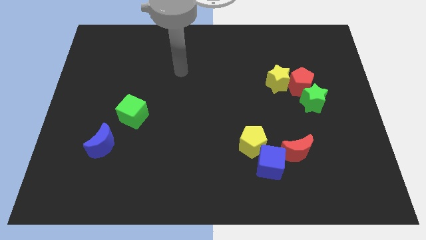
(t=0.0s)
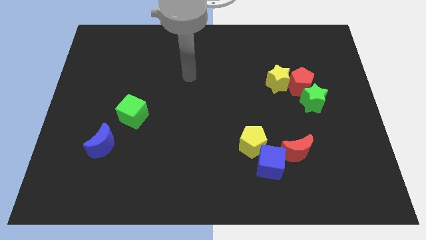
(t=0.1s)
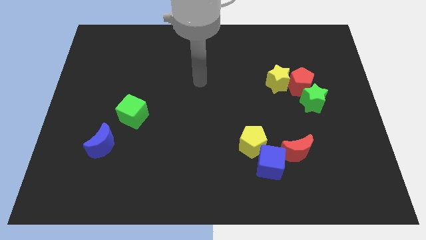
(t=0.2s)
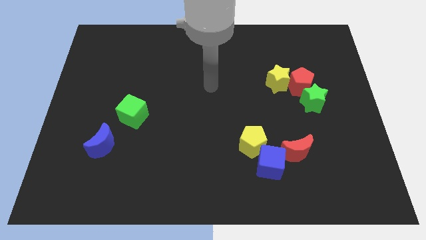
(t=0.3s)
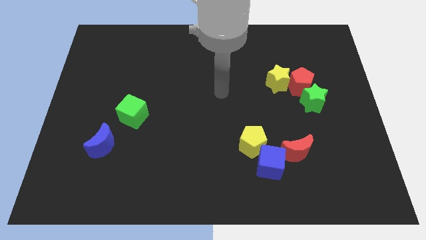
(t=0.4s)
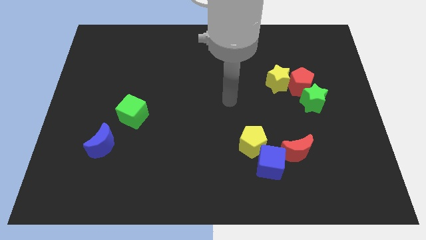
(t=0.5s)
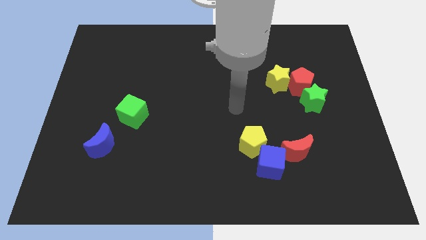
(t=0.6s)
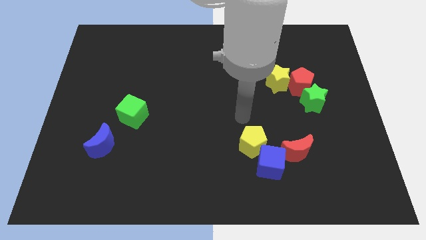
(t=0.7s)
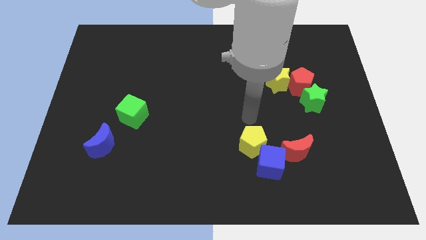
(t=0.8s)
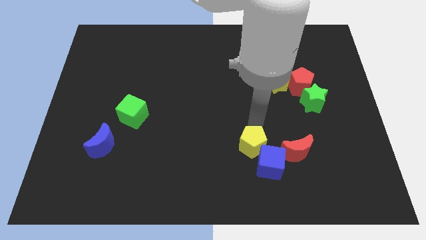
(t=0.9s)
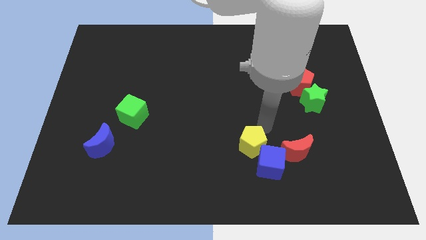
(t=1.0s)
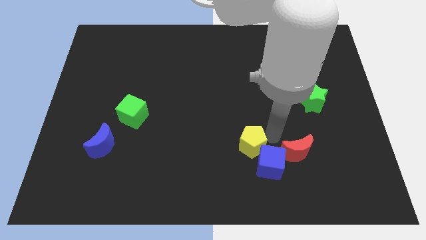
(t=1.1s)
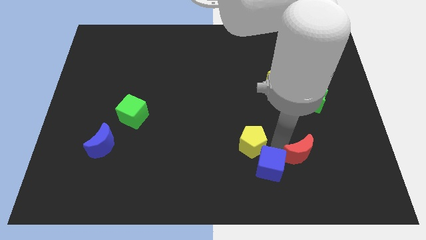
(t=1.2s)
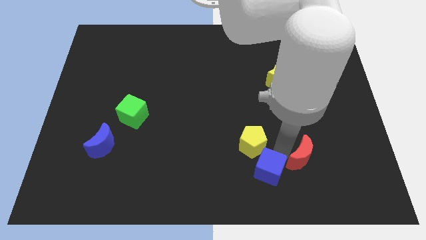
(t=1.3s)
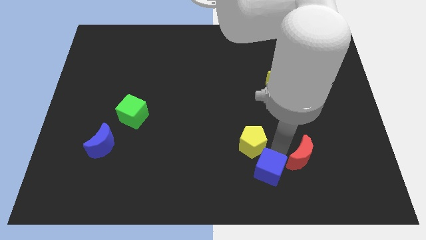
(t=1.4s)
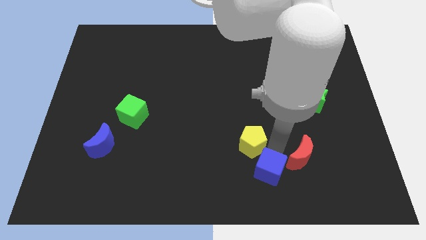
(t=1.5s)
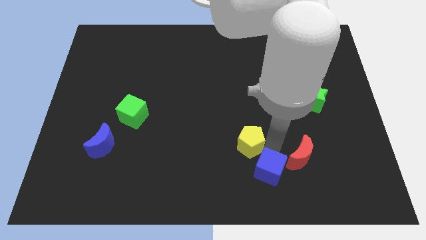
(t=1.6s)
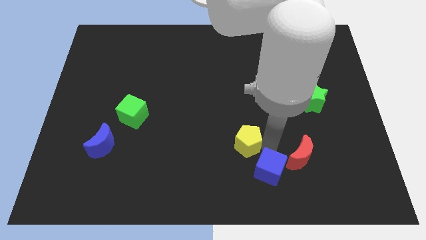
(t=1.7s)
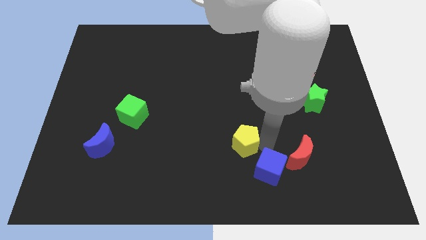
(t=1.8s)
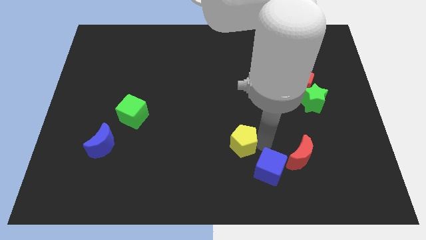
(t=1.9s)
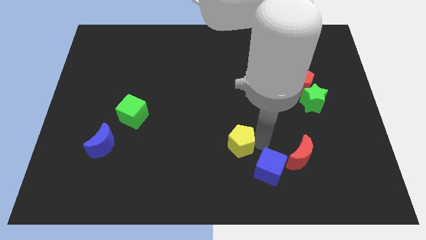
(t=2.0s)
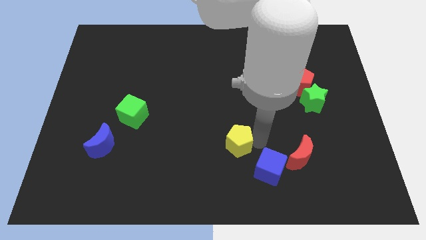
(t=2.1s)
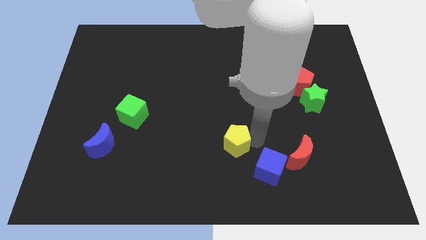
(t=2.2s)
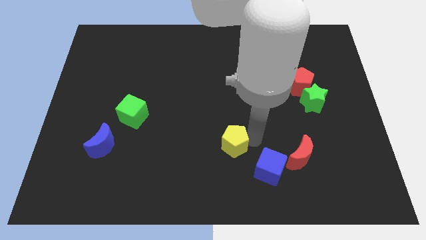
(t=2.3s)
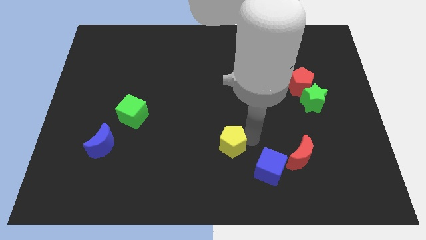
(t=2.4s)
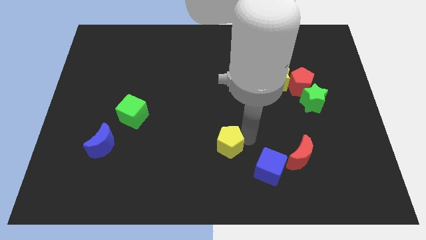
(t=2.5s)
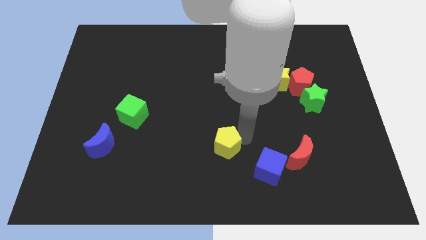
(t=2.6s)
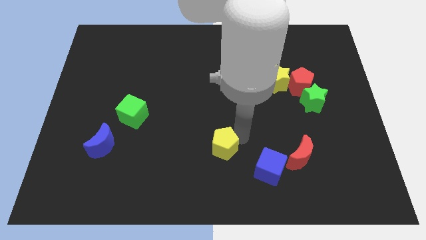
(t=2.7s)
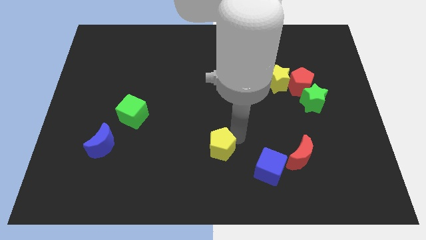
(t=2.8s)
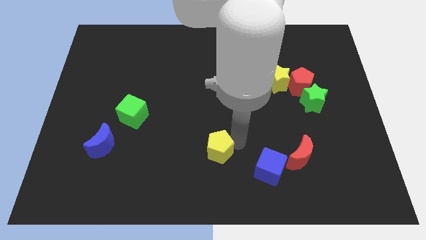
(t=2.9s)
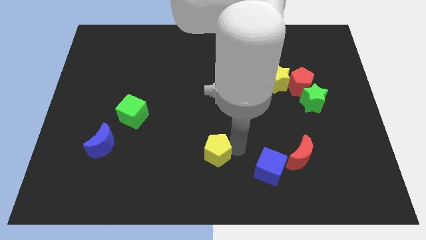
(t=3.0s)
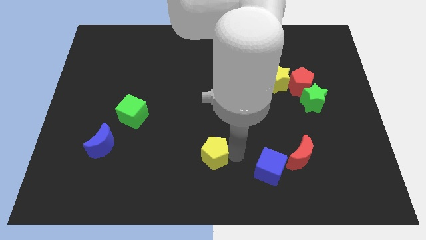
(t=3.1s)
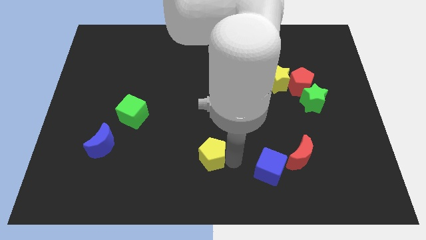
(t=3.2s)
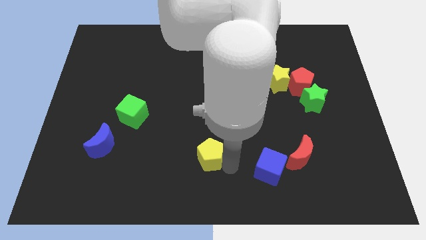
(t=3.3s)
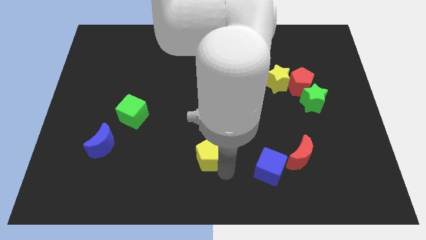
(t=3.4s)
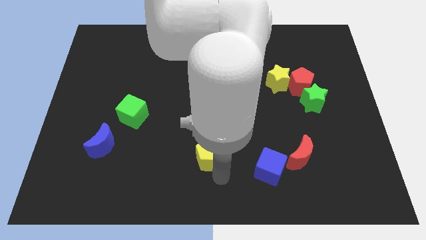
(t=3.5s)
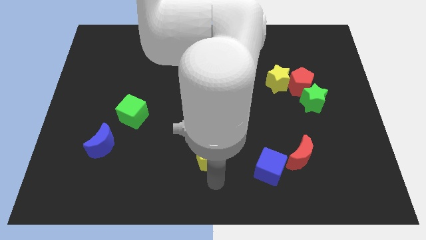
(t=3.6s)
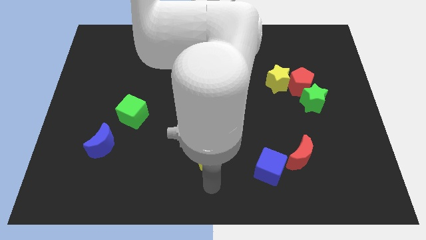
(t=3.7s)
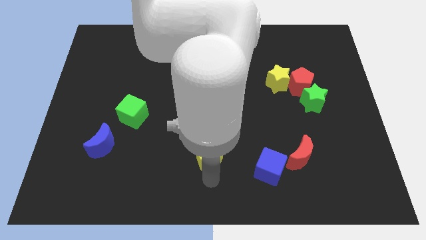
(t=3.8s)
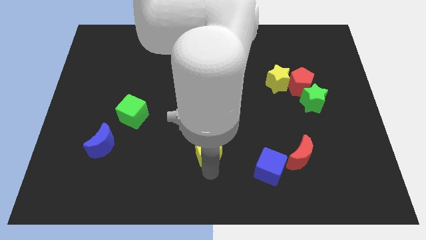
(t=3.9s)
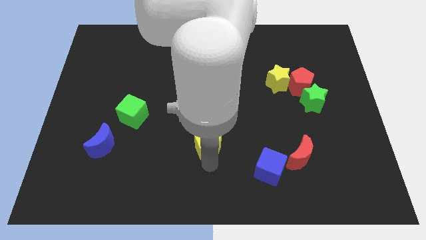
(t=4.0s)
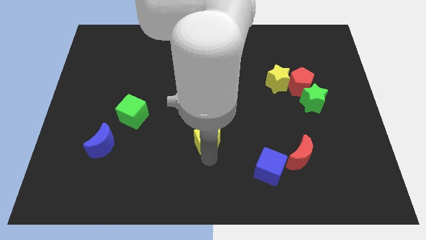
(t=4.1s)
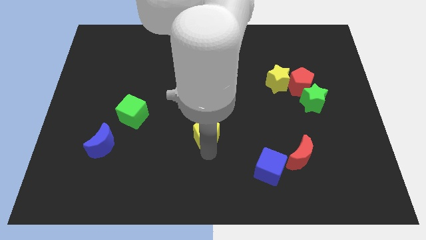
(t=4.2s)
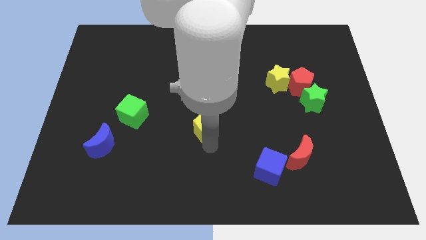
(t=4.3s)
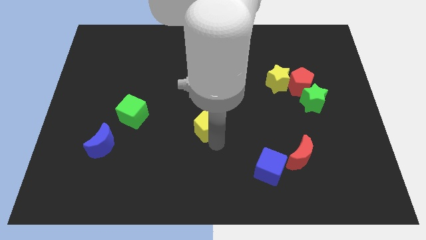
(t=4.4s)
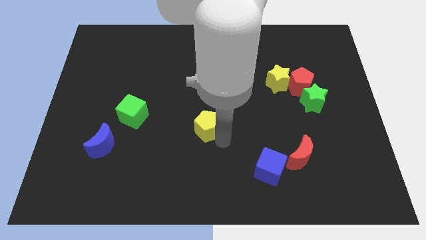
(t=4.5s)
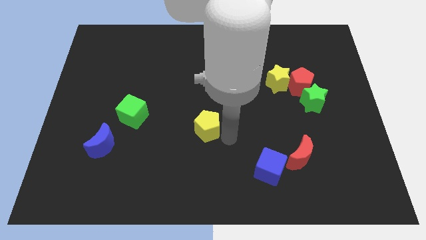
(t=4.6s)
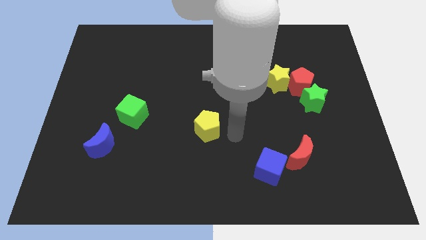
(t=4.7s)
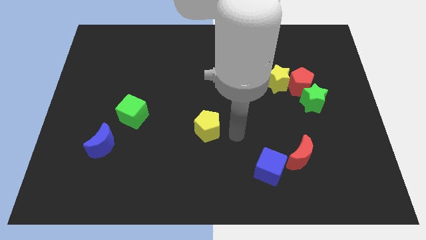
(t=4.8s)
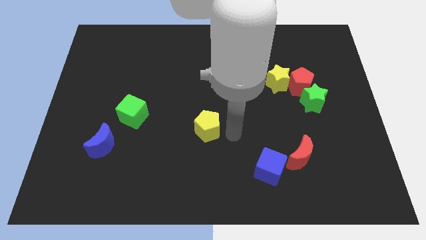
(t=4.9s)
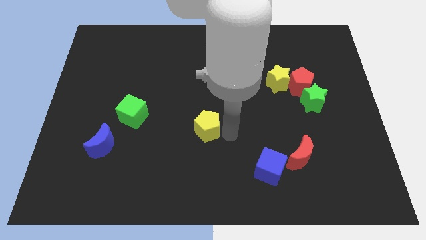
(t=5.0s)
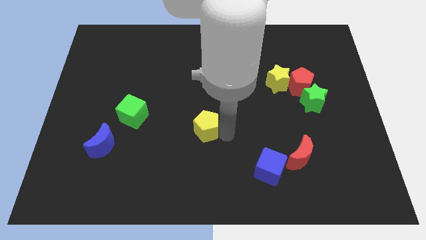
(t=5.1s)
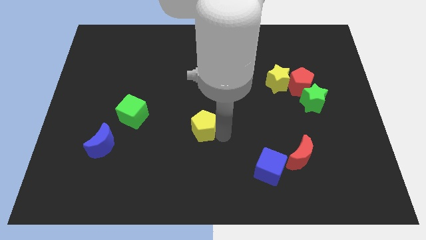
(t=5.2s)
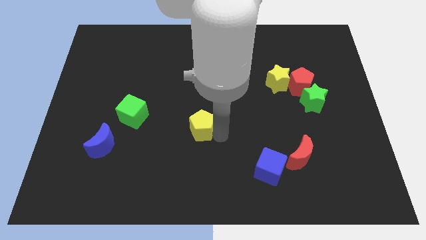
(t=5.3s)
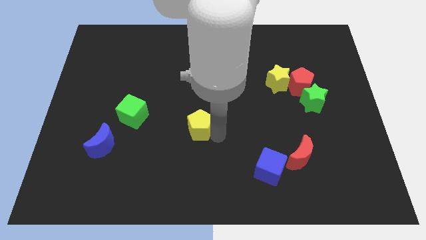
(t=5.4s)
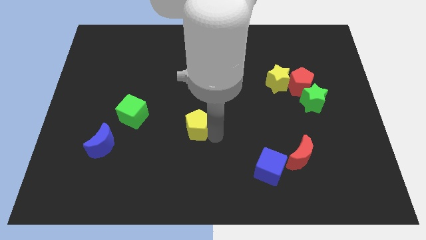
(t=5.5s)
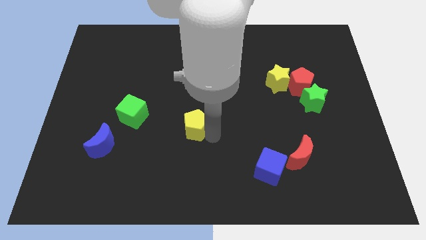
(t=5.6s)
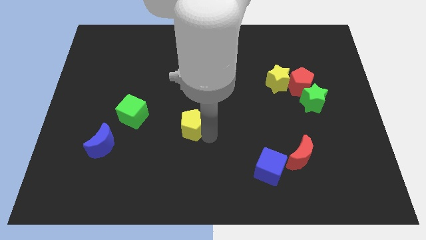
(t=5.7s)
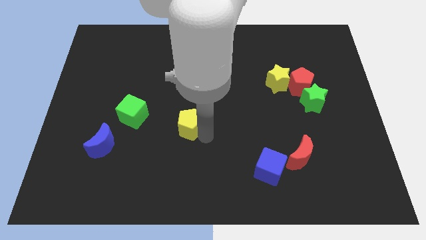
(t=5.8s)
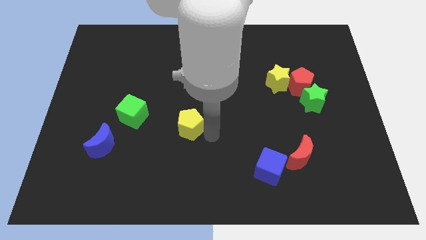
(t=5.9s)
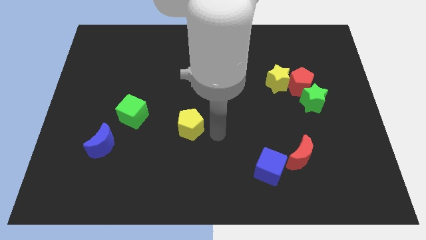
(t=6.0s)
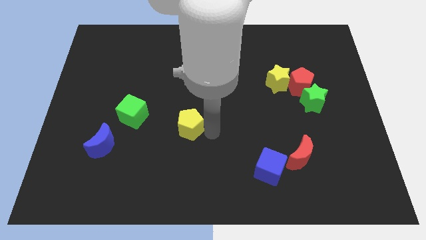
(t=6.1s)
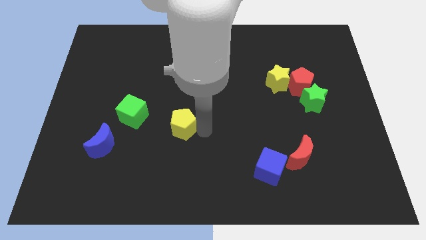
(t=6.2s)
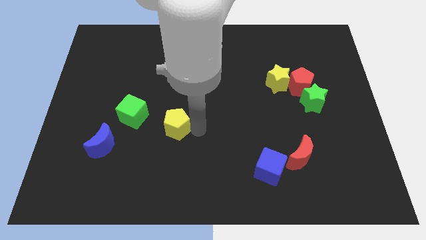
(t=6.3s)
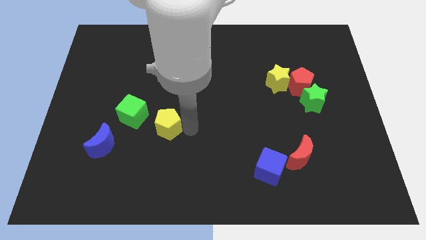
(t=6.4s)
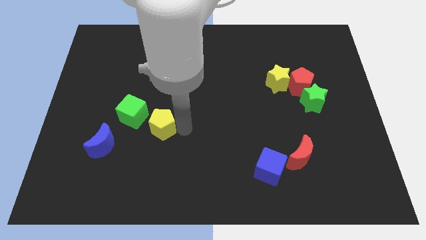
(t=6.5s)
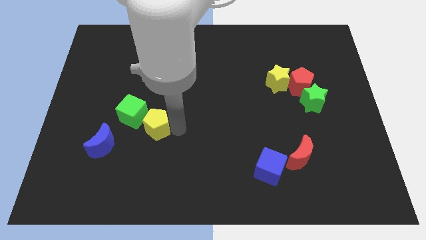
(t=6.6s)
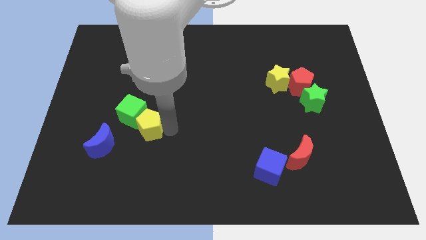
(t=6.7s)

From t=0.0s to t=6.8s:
move the yellow pentagon to the green cube
